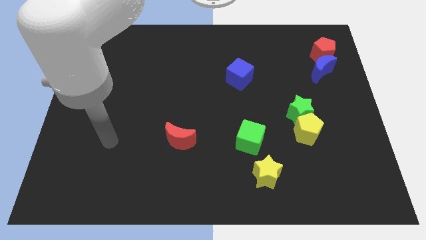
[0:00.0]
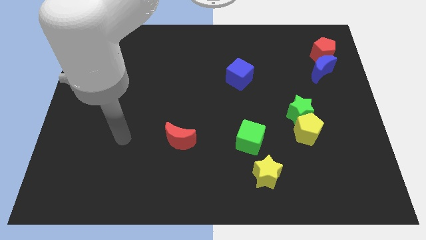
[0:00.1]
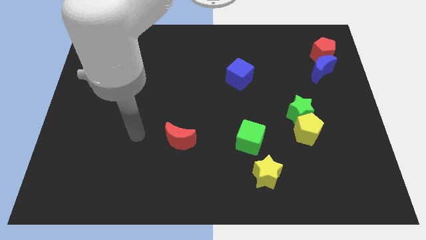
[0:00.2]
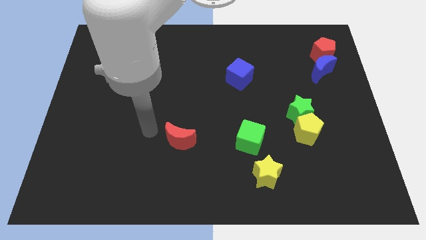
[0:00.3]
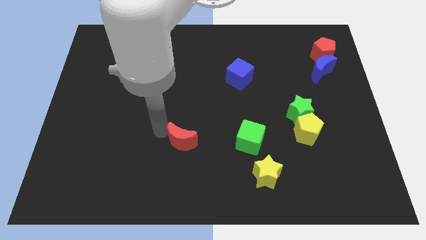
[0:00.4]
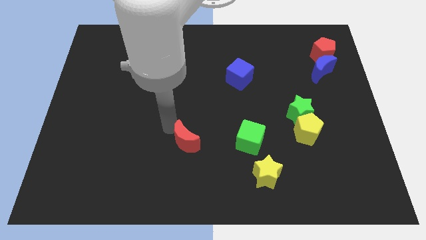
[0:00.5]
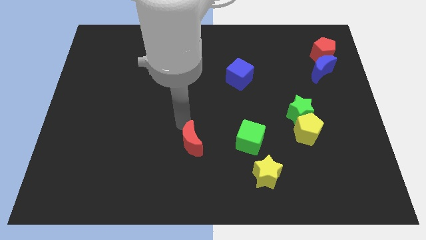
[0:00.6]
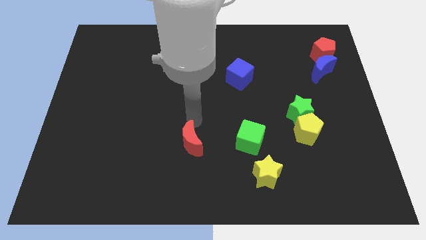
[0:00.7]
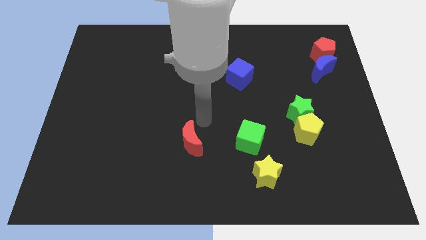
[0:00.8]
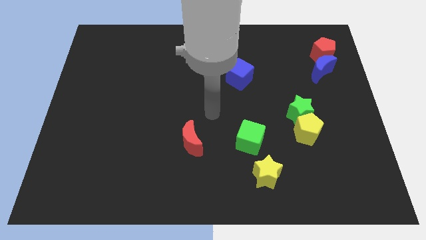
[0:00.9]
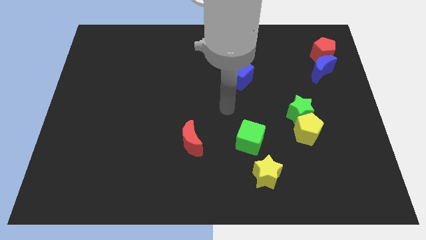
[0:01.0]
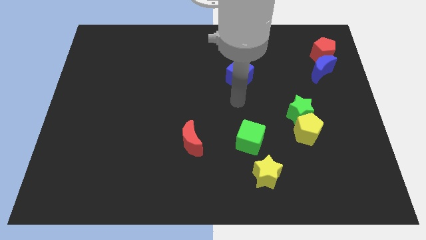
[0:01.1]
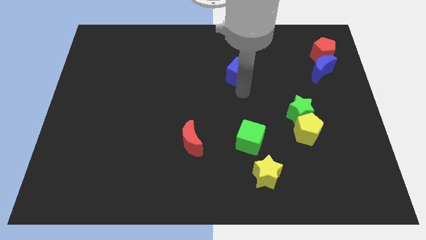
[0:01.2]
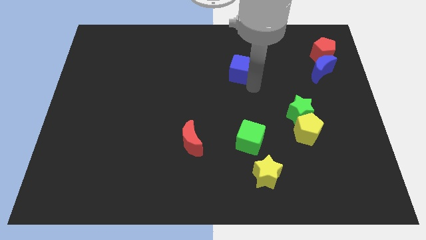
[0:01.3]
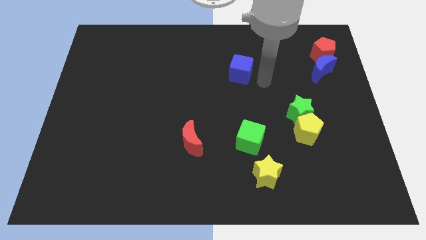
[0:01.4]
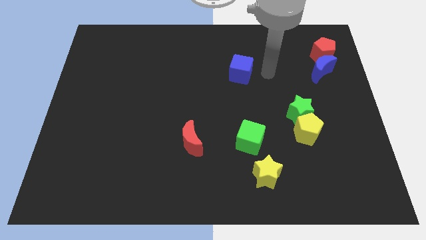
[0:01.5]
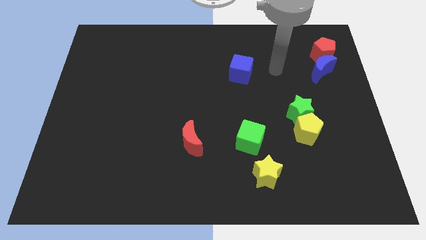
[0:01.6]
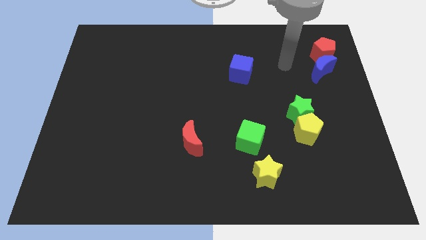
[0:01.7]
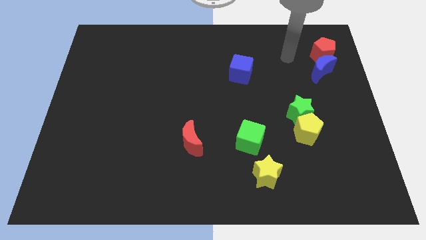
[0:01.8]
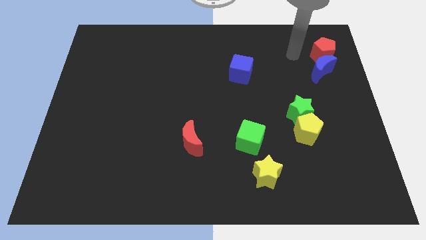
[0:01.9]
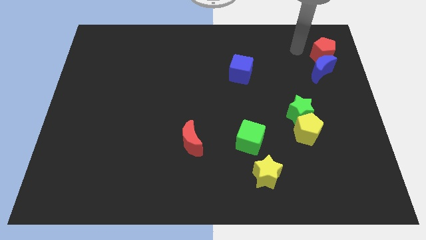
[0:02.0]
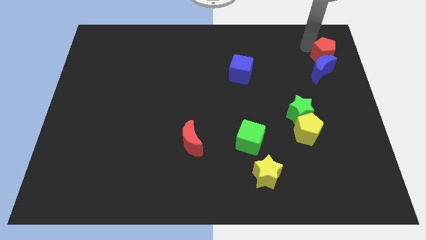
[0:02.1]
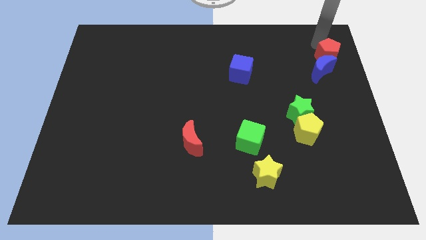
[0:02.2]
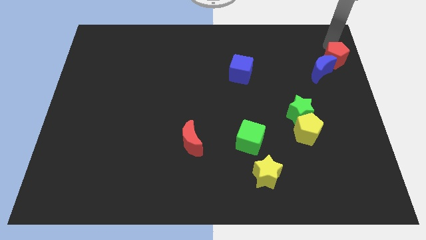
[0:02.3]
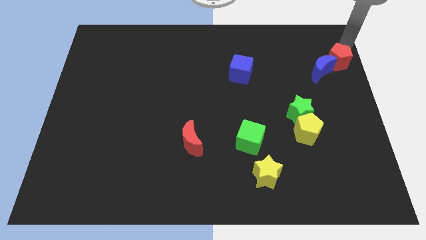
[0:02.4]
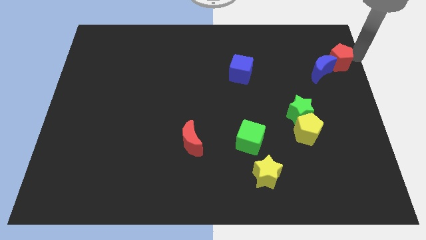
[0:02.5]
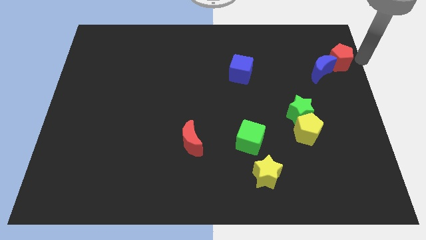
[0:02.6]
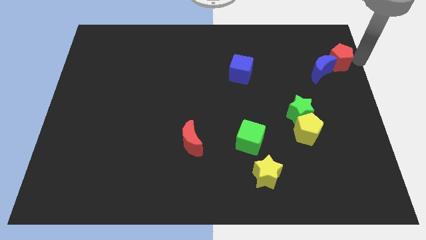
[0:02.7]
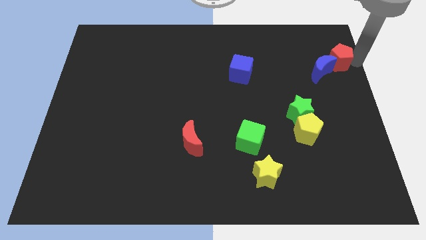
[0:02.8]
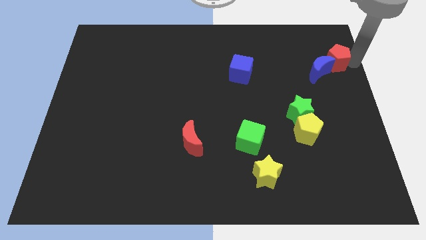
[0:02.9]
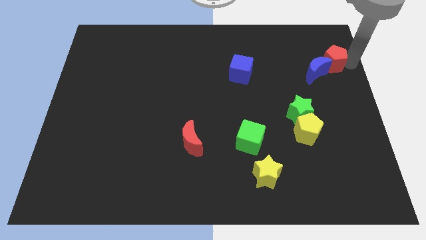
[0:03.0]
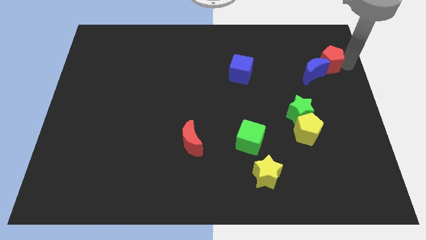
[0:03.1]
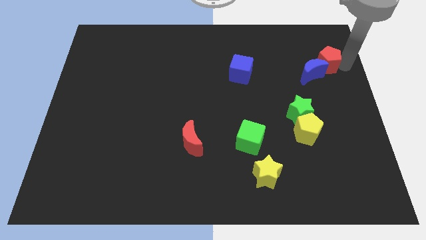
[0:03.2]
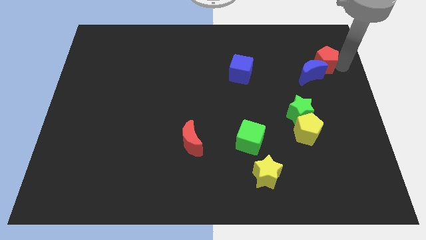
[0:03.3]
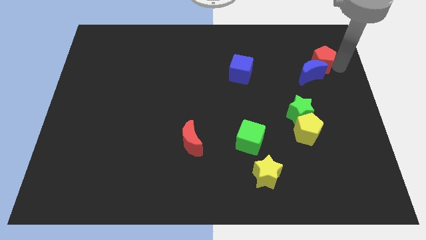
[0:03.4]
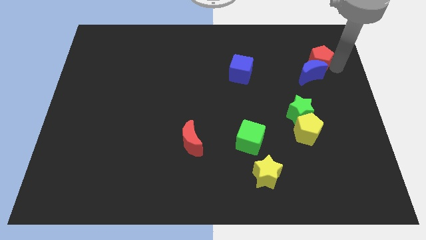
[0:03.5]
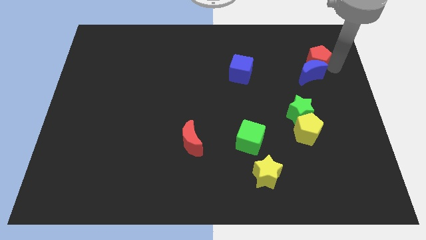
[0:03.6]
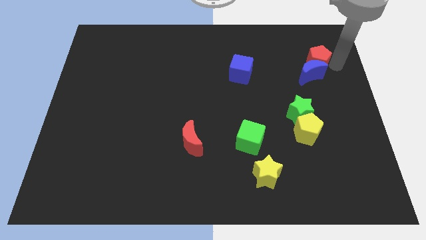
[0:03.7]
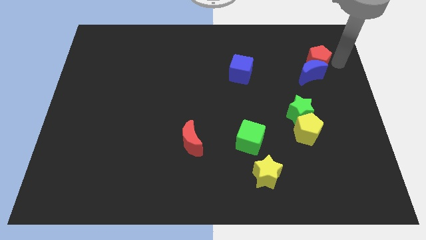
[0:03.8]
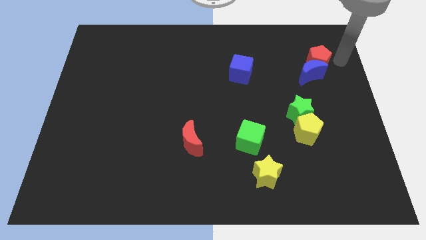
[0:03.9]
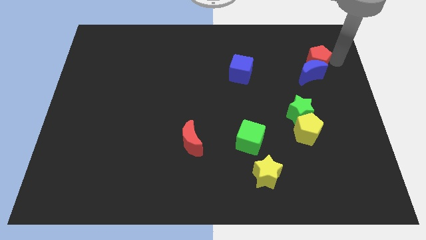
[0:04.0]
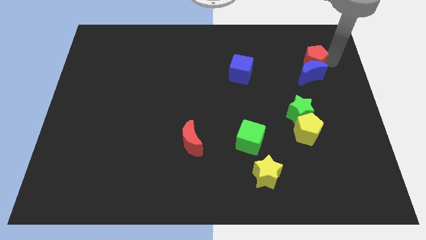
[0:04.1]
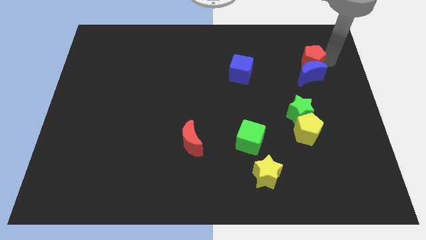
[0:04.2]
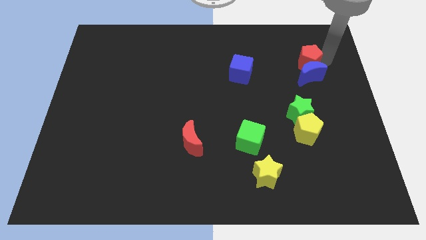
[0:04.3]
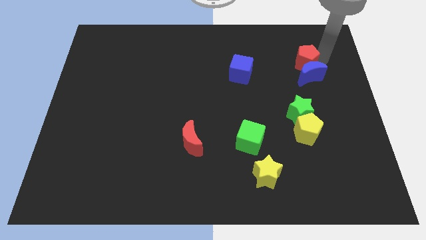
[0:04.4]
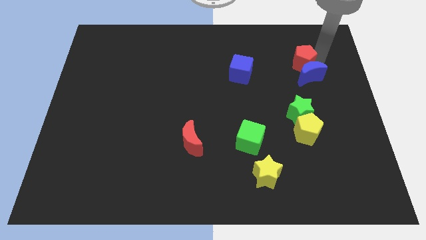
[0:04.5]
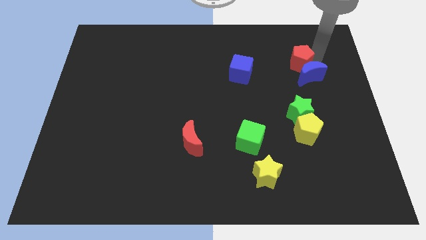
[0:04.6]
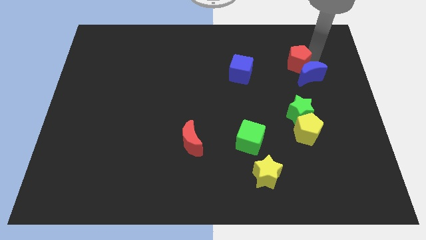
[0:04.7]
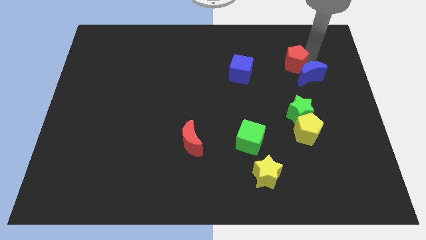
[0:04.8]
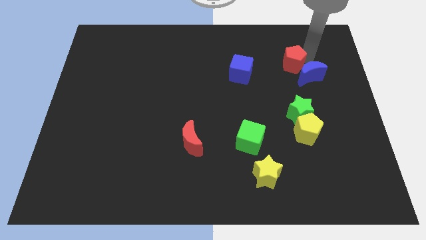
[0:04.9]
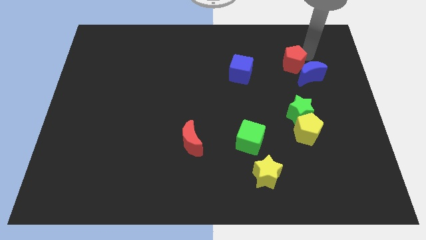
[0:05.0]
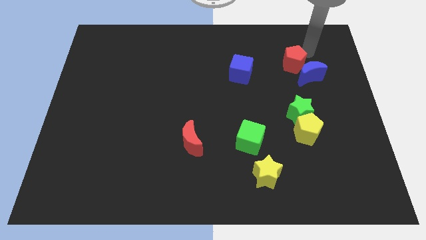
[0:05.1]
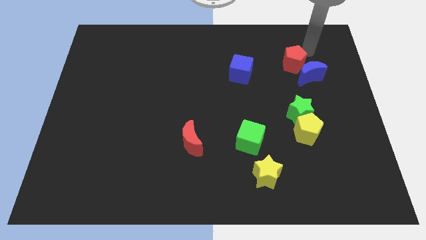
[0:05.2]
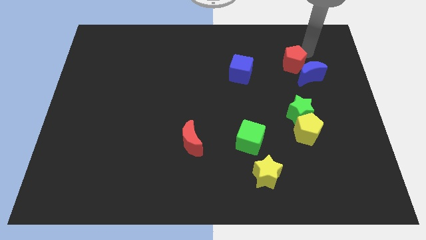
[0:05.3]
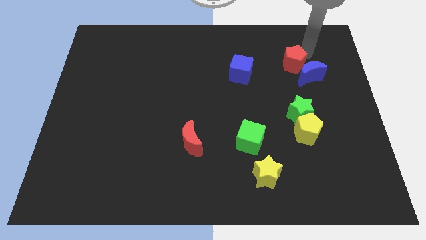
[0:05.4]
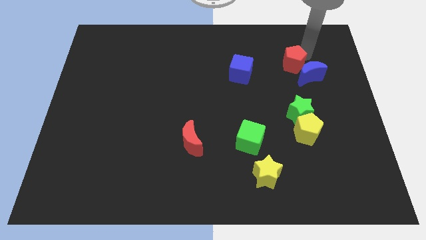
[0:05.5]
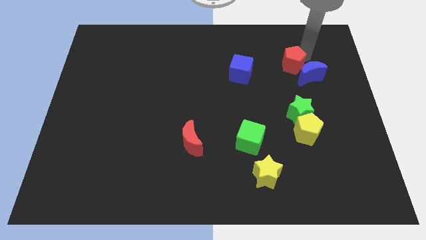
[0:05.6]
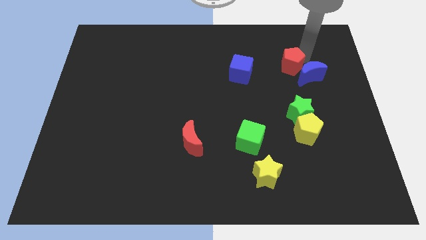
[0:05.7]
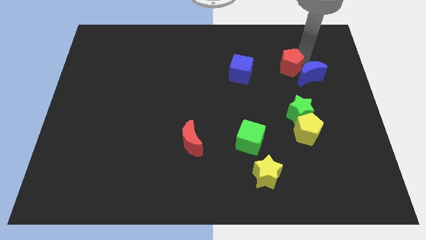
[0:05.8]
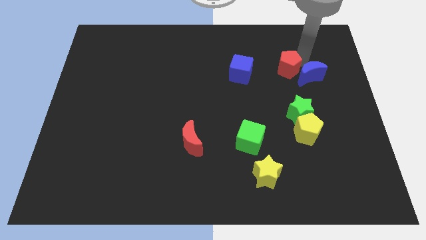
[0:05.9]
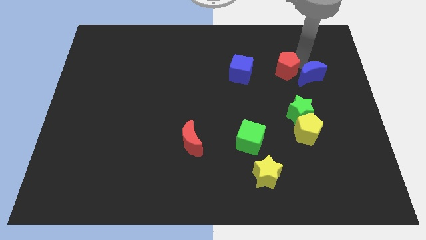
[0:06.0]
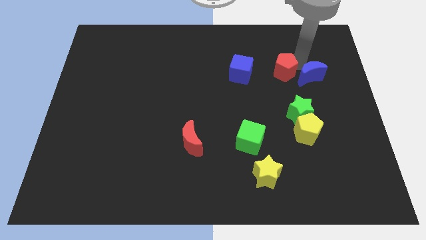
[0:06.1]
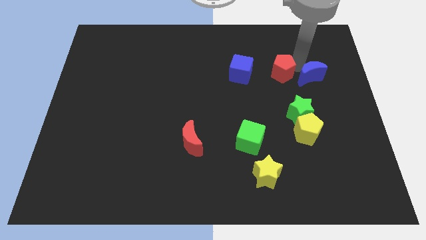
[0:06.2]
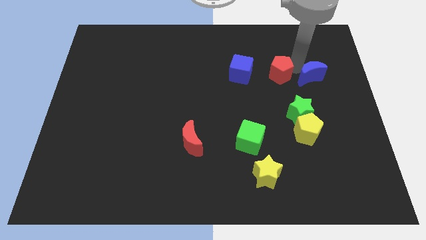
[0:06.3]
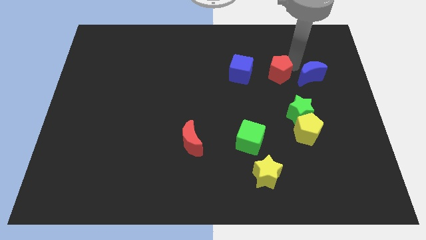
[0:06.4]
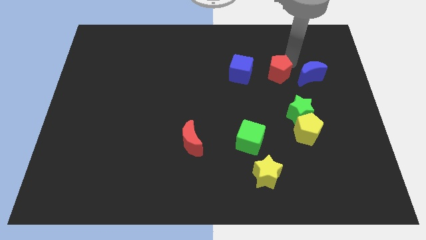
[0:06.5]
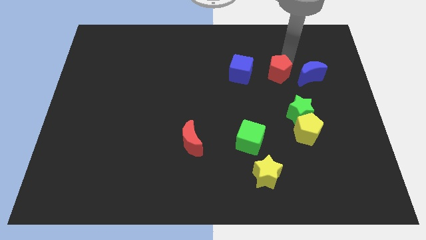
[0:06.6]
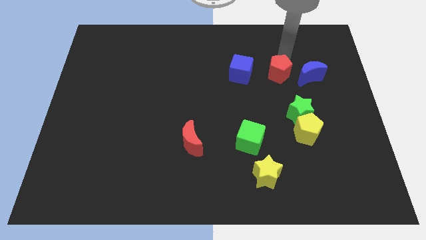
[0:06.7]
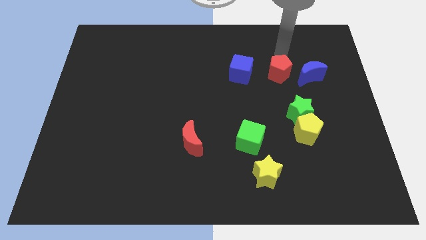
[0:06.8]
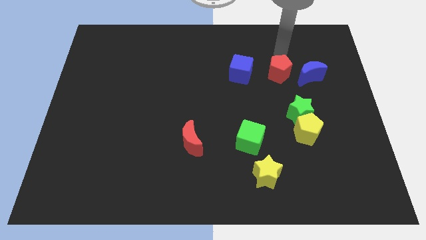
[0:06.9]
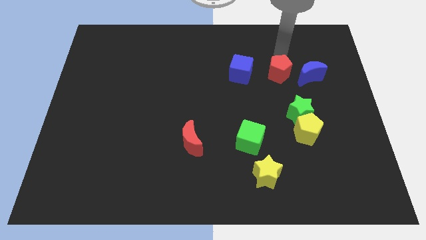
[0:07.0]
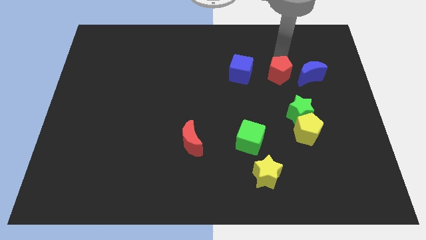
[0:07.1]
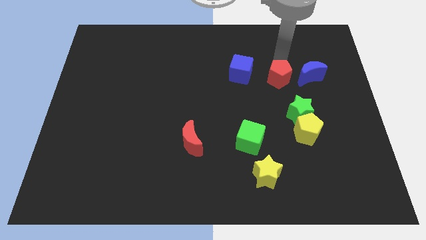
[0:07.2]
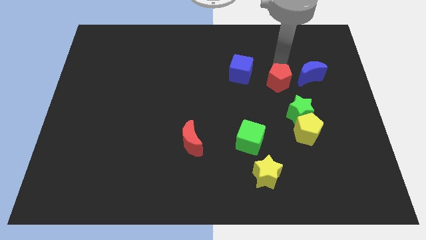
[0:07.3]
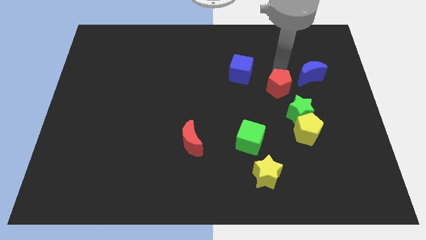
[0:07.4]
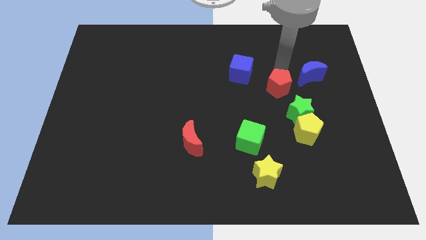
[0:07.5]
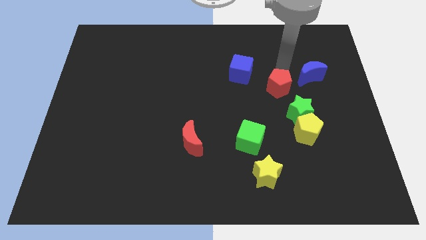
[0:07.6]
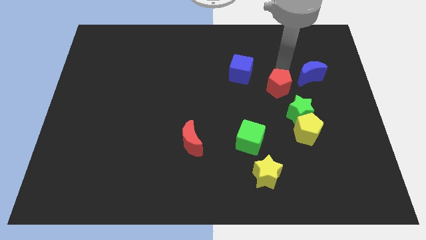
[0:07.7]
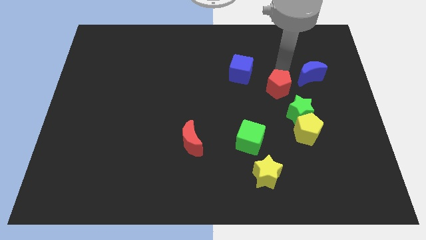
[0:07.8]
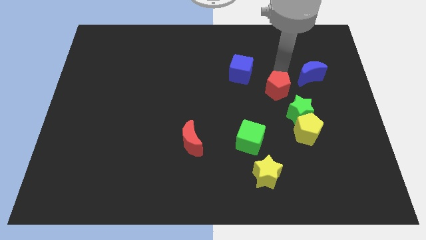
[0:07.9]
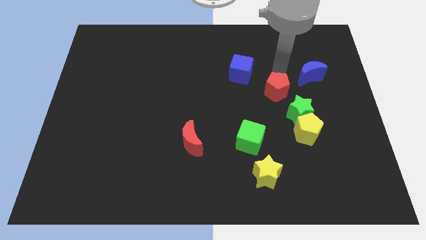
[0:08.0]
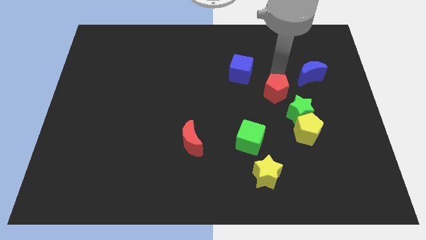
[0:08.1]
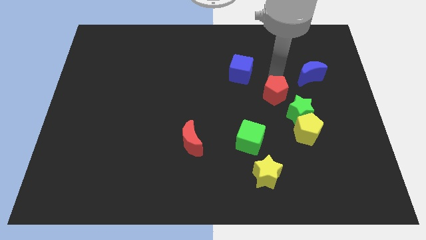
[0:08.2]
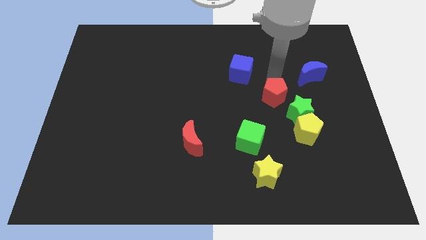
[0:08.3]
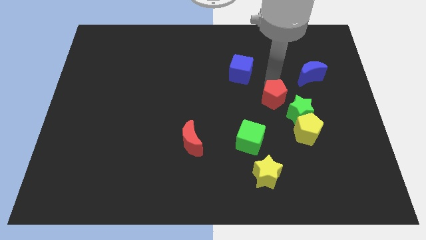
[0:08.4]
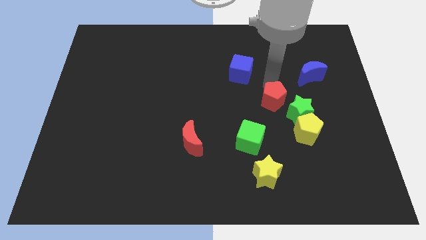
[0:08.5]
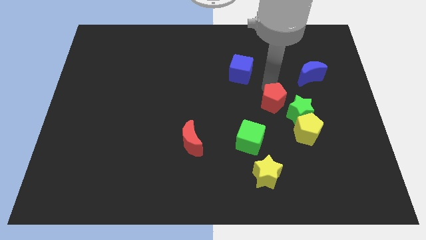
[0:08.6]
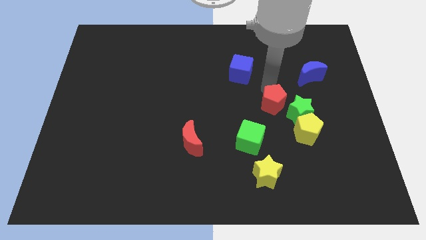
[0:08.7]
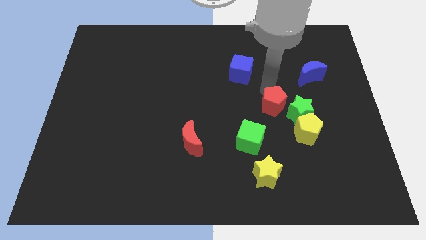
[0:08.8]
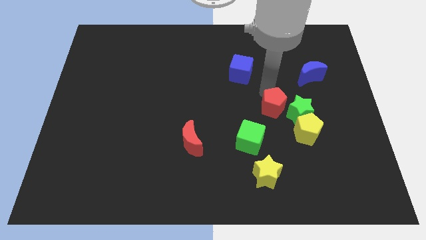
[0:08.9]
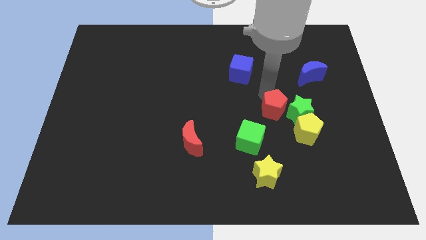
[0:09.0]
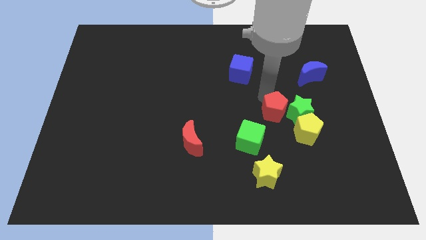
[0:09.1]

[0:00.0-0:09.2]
put the red pentagon to the bottom left side of the green star
